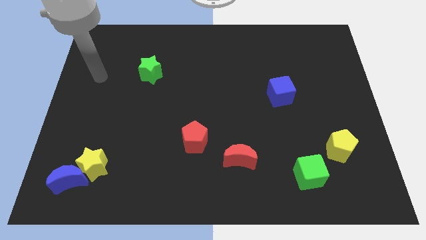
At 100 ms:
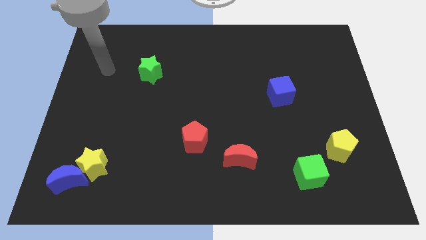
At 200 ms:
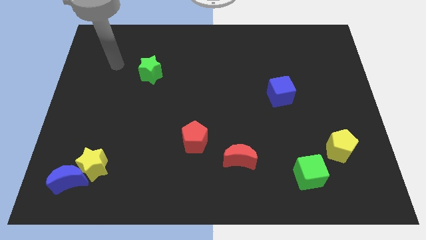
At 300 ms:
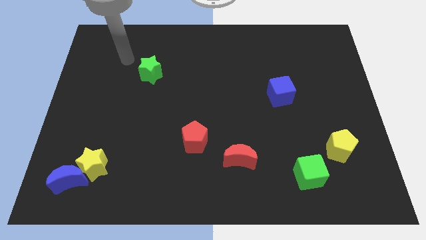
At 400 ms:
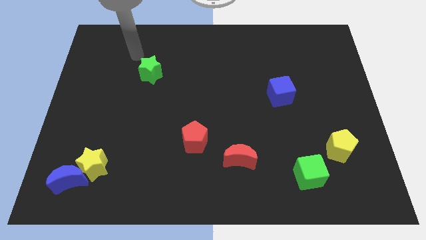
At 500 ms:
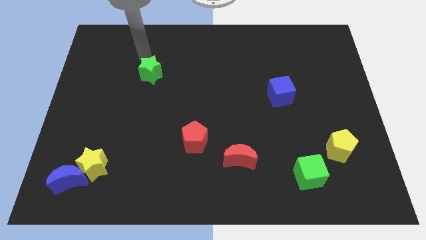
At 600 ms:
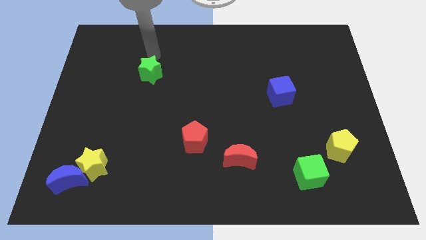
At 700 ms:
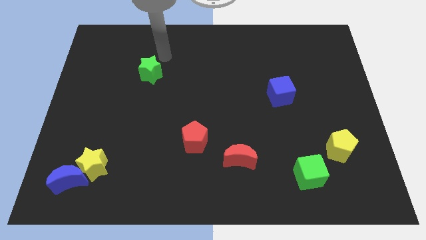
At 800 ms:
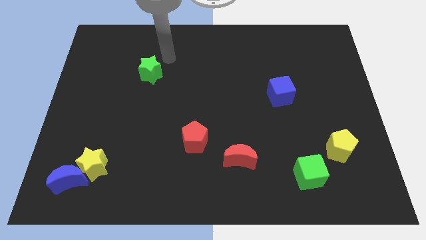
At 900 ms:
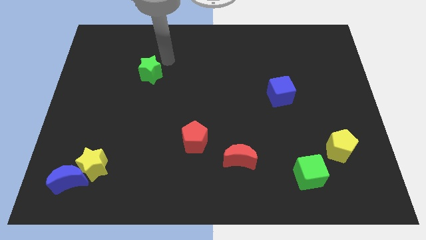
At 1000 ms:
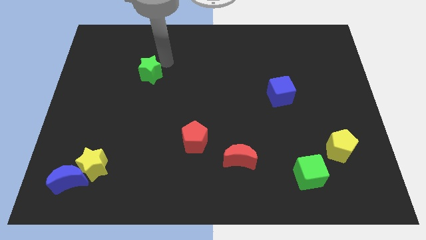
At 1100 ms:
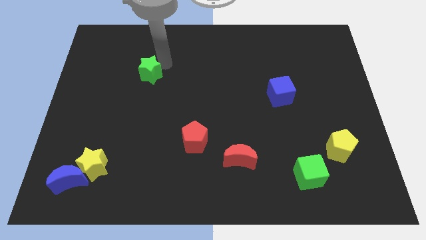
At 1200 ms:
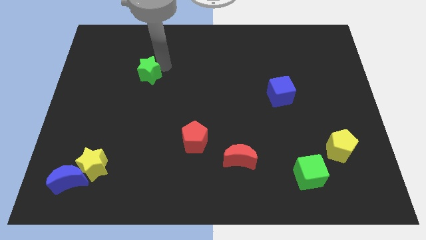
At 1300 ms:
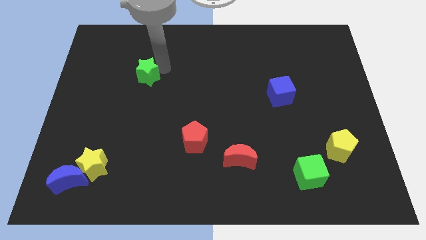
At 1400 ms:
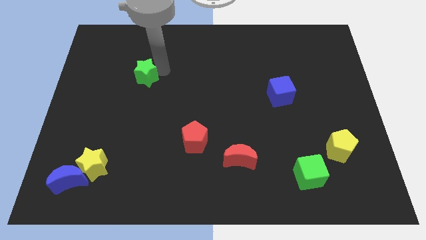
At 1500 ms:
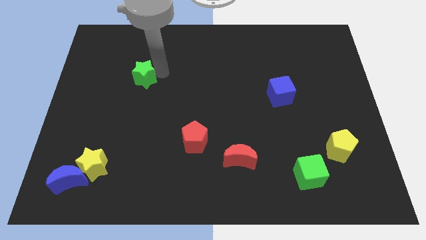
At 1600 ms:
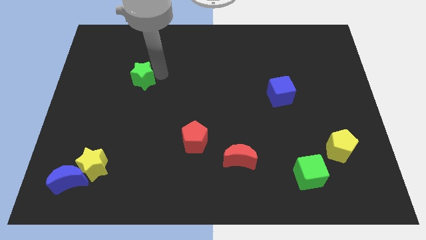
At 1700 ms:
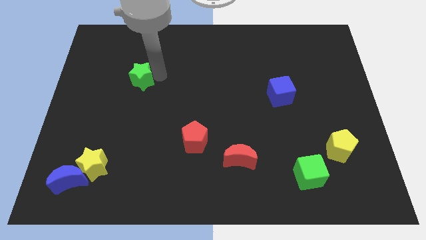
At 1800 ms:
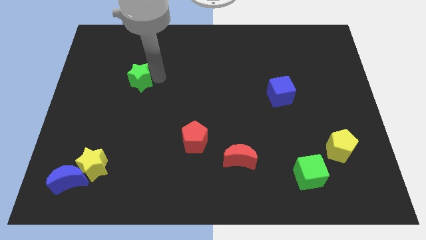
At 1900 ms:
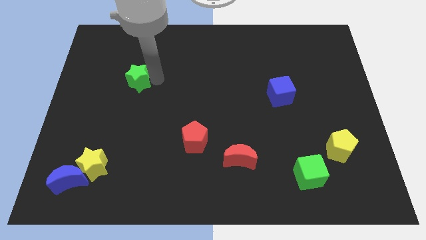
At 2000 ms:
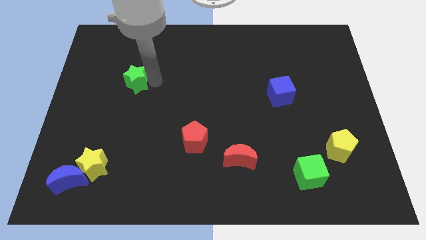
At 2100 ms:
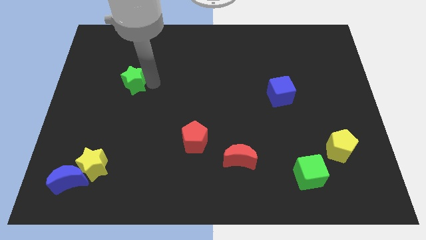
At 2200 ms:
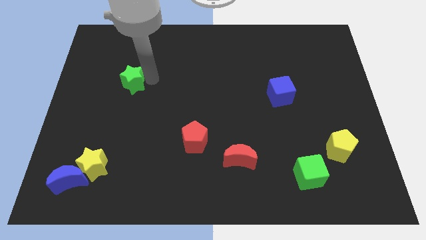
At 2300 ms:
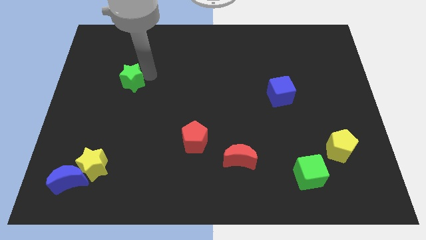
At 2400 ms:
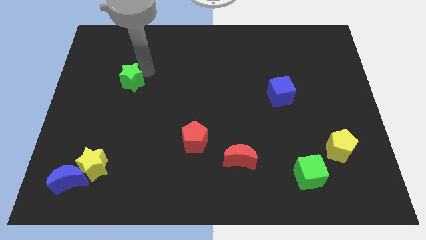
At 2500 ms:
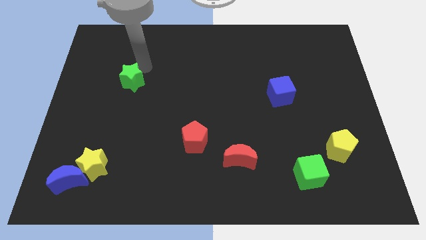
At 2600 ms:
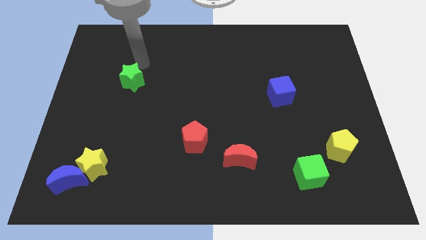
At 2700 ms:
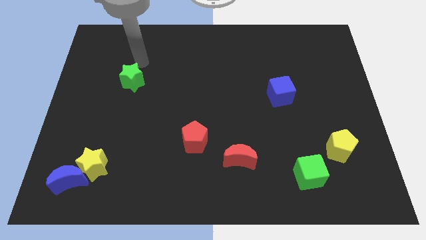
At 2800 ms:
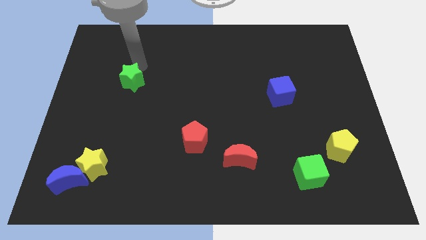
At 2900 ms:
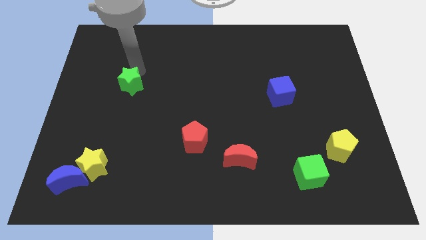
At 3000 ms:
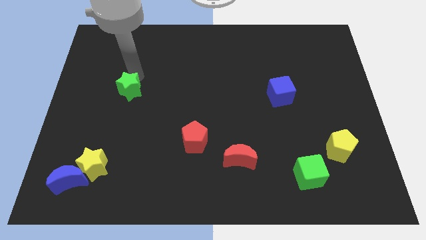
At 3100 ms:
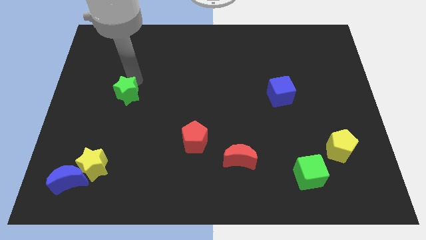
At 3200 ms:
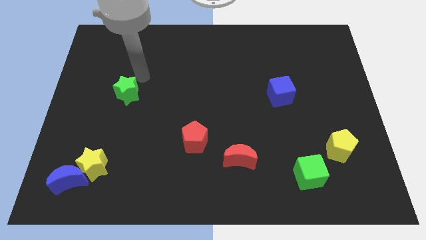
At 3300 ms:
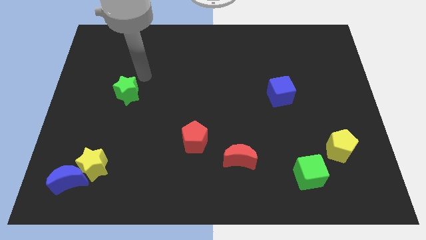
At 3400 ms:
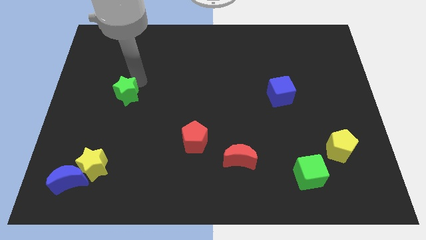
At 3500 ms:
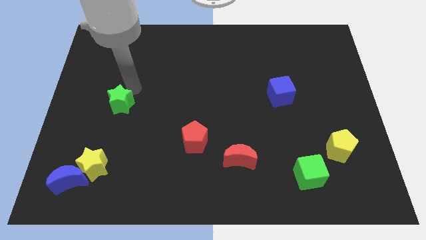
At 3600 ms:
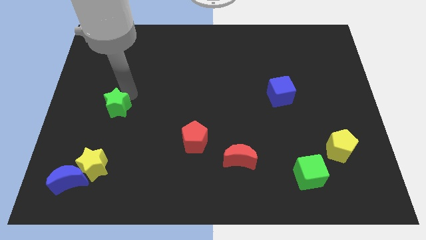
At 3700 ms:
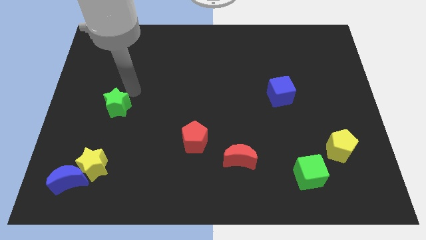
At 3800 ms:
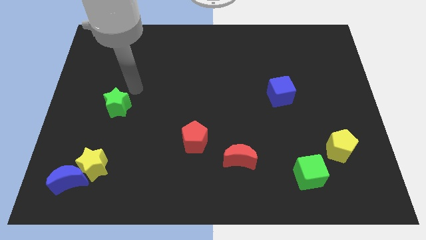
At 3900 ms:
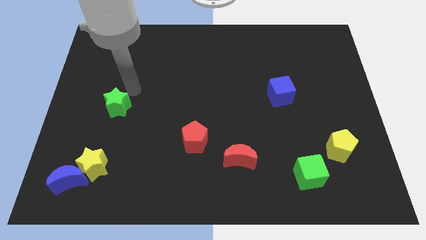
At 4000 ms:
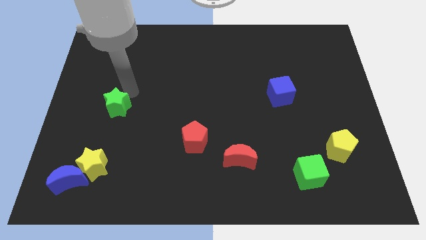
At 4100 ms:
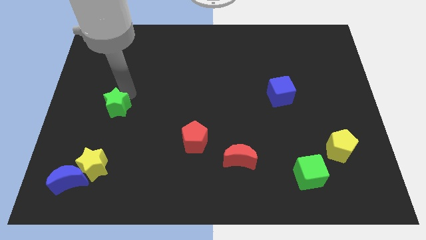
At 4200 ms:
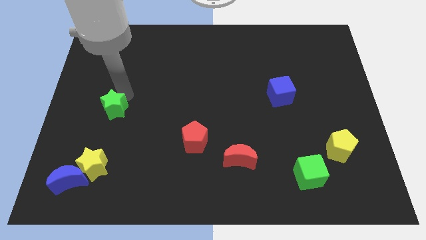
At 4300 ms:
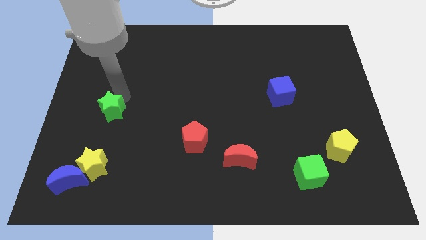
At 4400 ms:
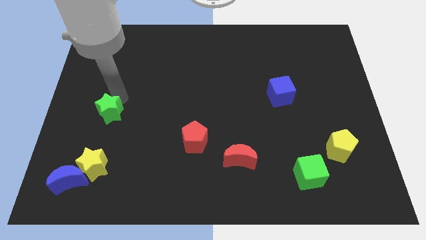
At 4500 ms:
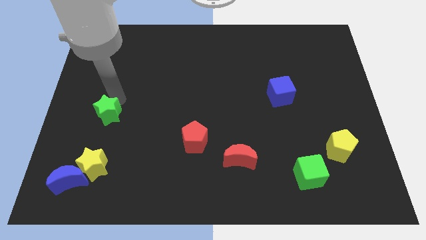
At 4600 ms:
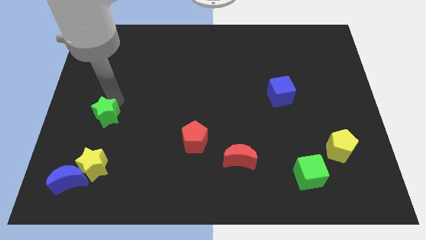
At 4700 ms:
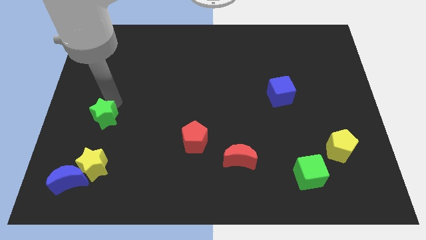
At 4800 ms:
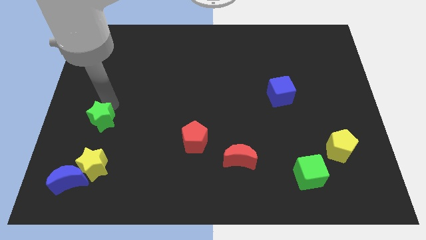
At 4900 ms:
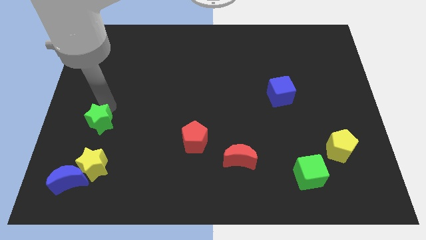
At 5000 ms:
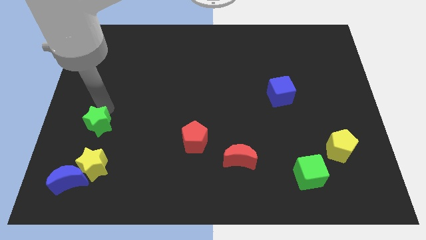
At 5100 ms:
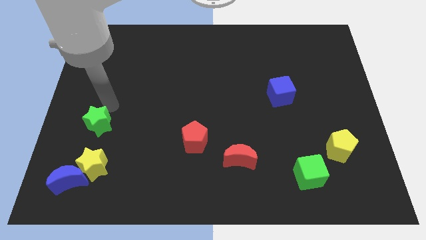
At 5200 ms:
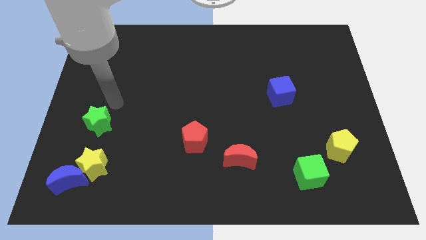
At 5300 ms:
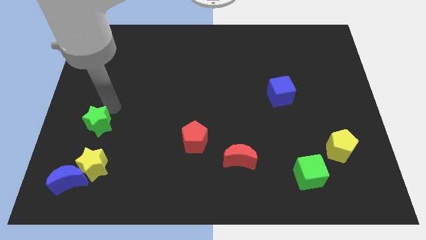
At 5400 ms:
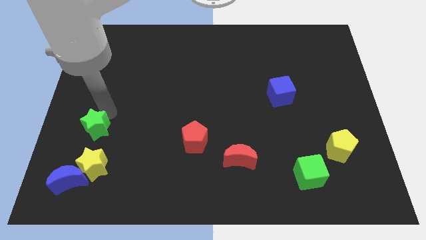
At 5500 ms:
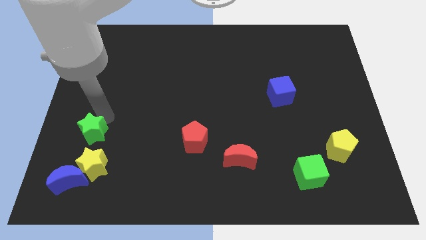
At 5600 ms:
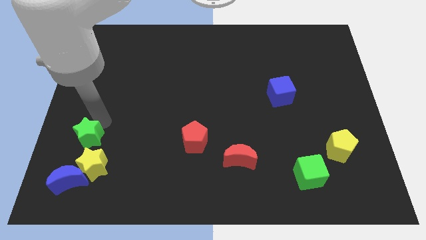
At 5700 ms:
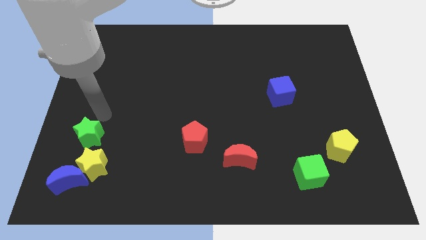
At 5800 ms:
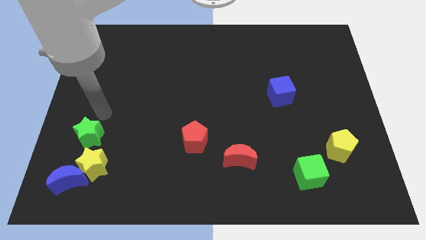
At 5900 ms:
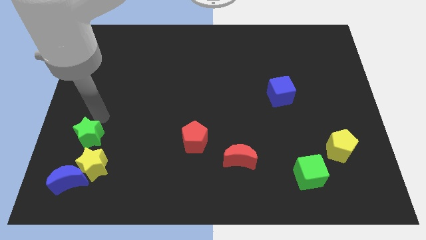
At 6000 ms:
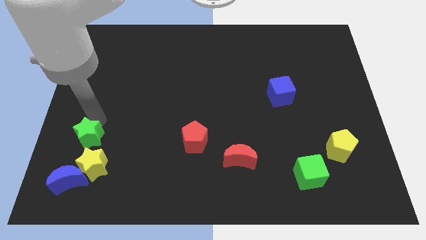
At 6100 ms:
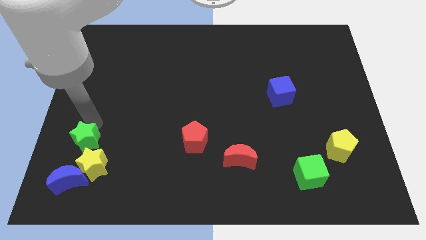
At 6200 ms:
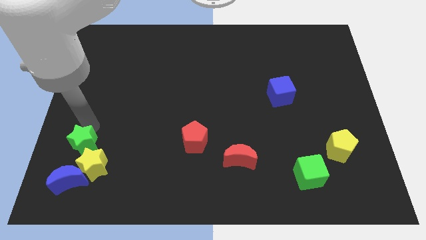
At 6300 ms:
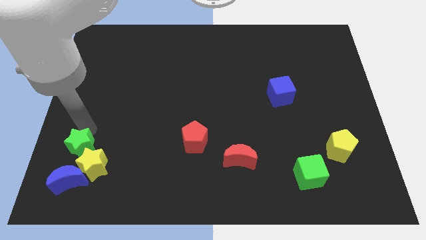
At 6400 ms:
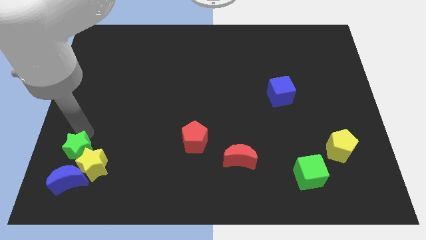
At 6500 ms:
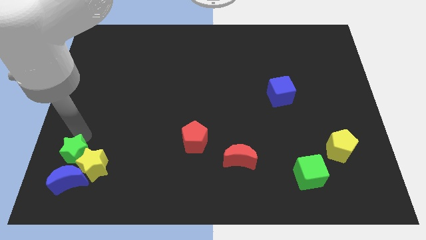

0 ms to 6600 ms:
put the green star to the blue moon

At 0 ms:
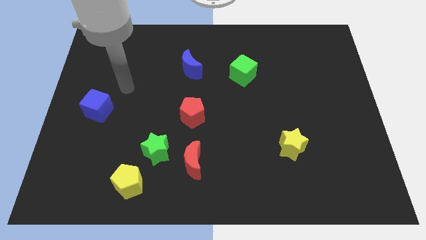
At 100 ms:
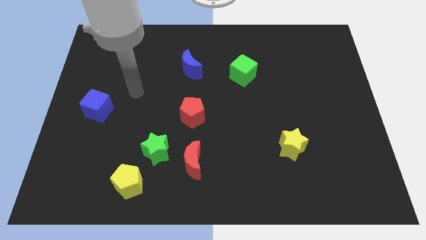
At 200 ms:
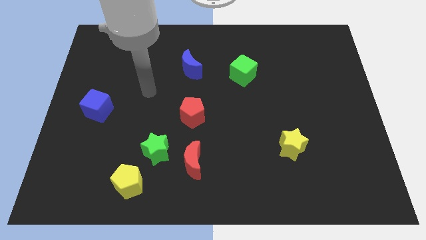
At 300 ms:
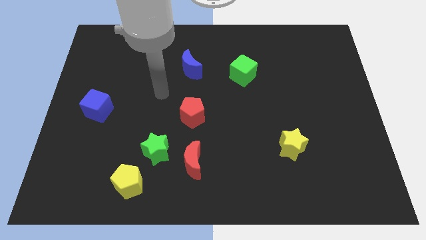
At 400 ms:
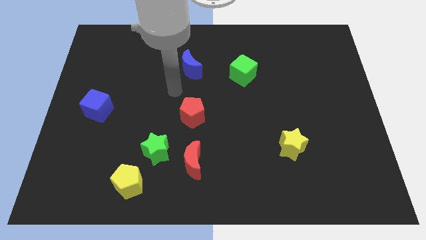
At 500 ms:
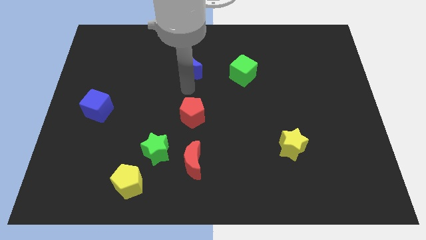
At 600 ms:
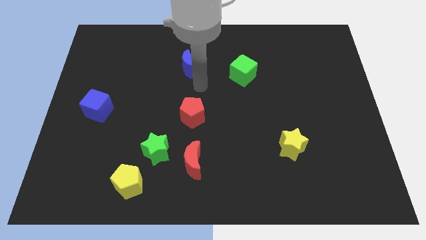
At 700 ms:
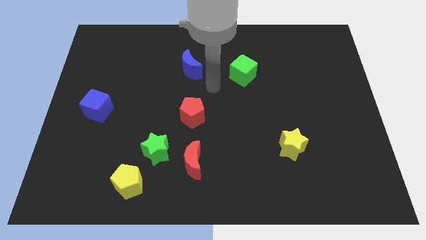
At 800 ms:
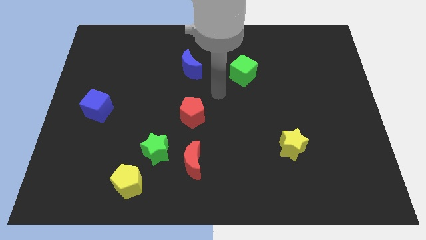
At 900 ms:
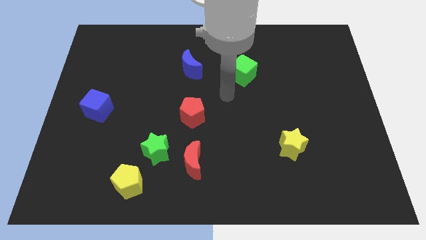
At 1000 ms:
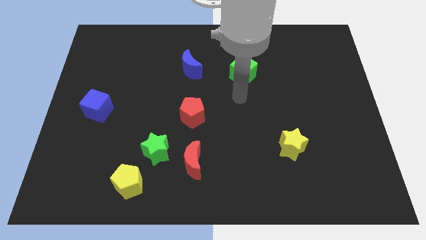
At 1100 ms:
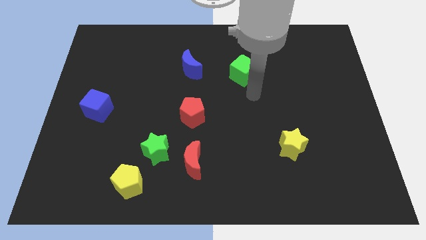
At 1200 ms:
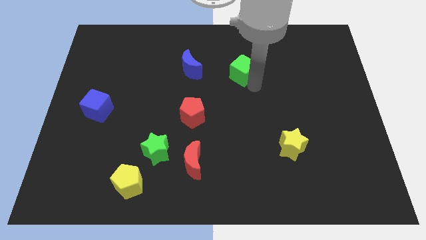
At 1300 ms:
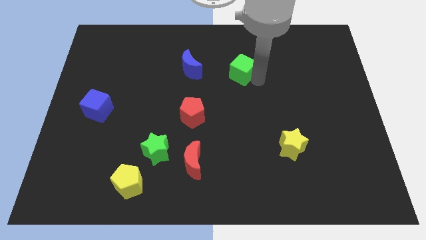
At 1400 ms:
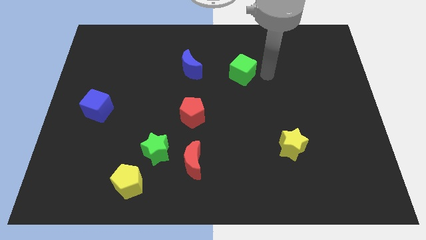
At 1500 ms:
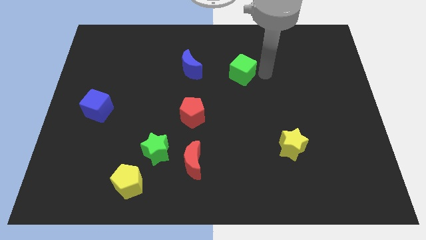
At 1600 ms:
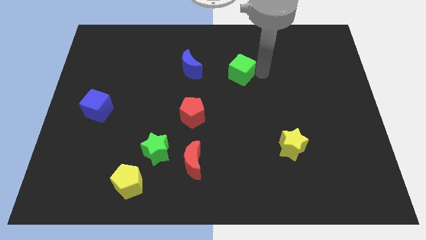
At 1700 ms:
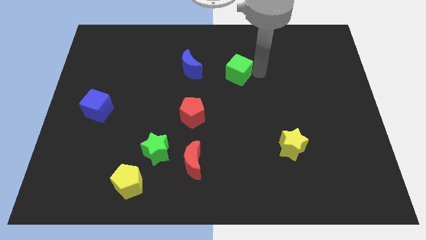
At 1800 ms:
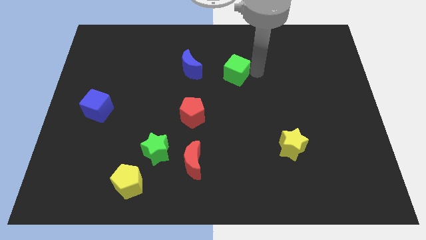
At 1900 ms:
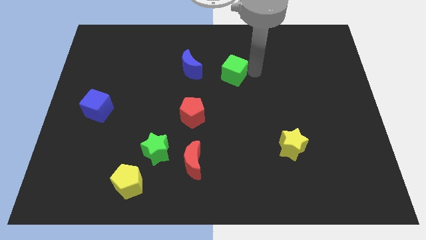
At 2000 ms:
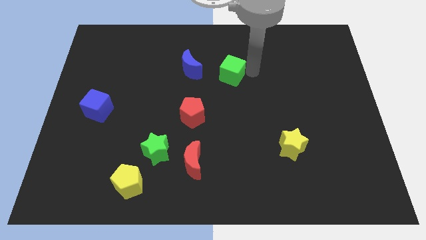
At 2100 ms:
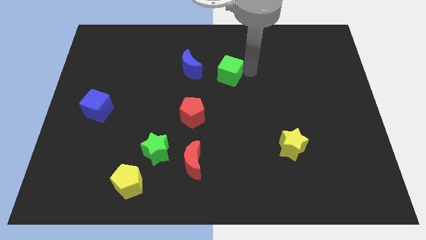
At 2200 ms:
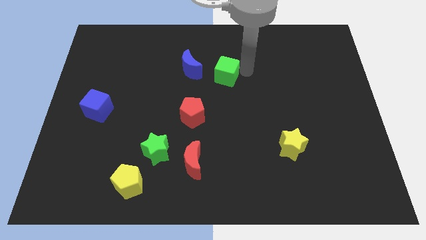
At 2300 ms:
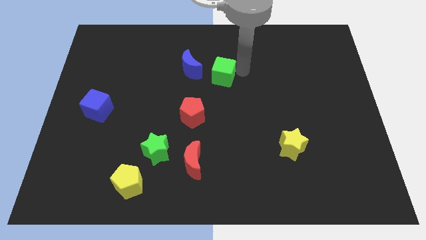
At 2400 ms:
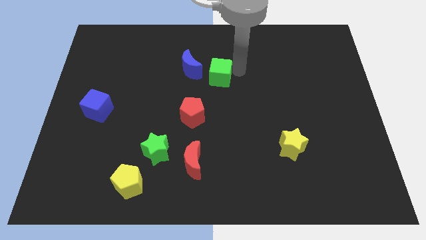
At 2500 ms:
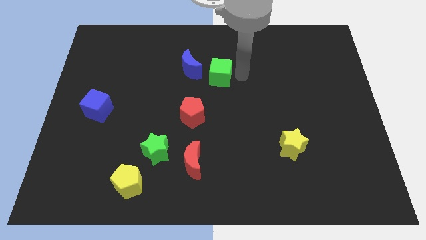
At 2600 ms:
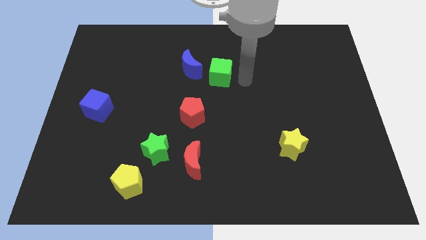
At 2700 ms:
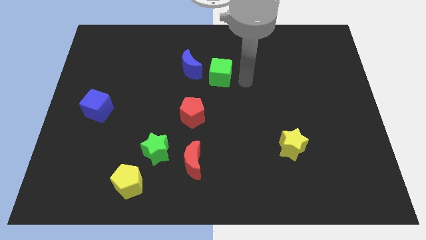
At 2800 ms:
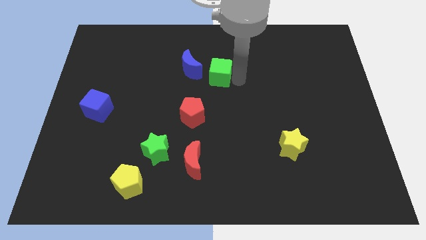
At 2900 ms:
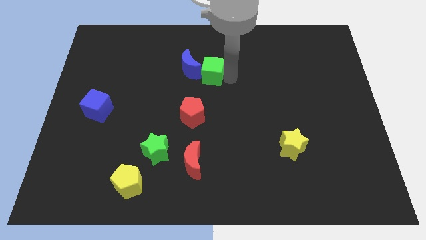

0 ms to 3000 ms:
slide the green cube next to the blue moon
